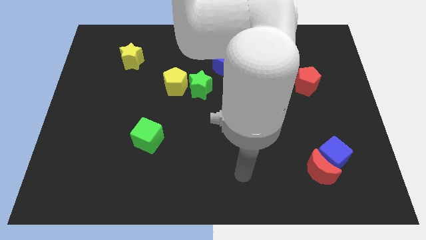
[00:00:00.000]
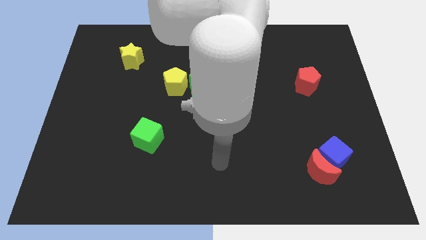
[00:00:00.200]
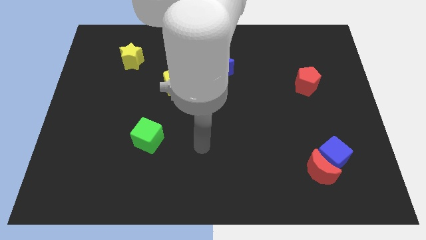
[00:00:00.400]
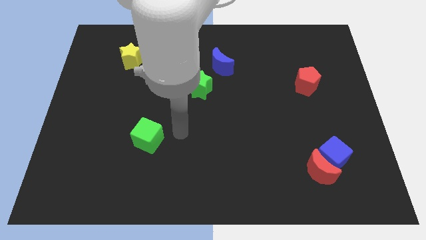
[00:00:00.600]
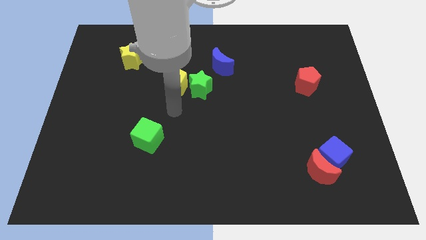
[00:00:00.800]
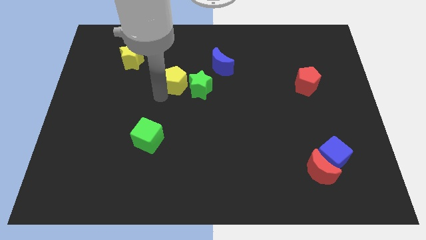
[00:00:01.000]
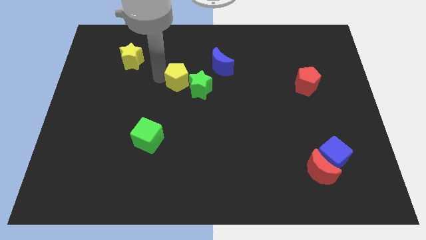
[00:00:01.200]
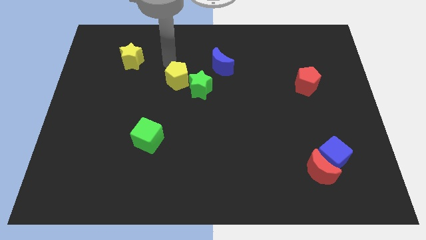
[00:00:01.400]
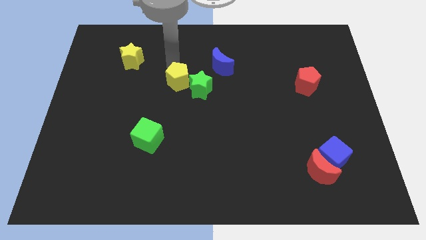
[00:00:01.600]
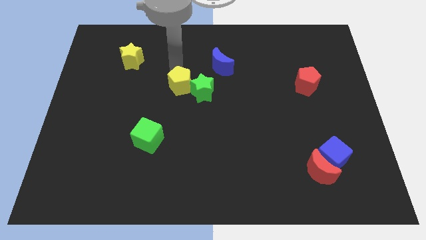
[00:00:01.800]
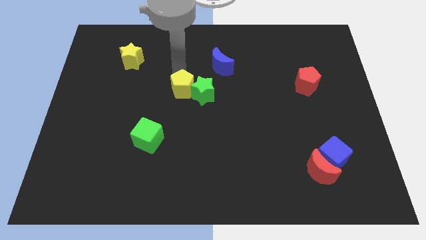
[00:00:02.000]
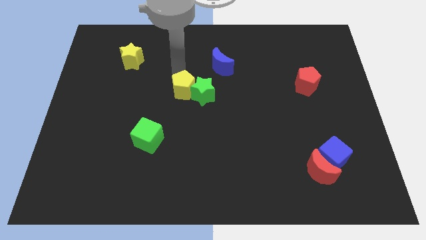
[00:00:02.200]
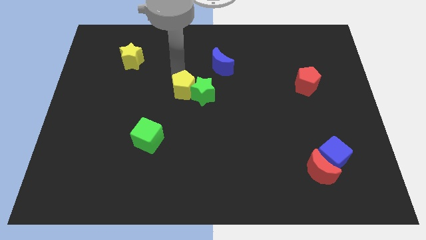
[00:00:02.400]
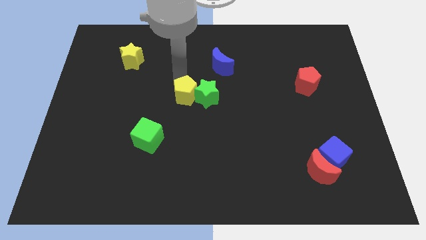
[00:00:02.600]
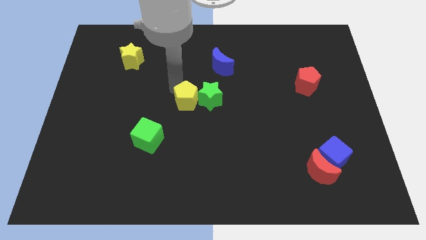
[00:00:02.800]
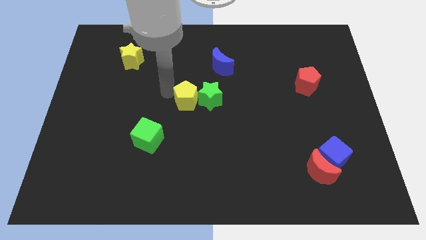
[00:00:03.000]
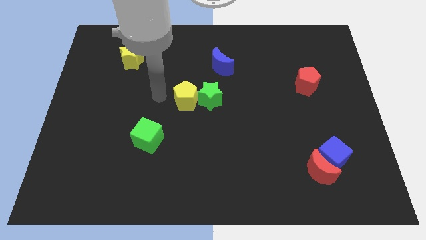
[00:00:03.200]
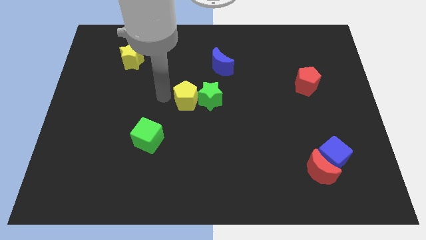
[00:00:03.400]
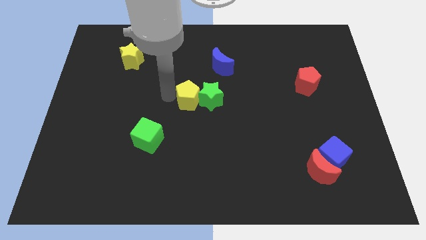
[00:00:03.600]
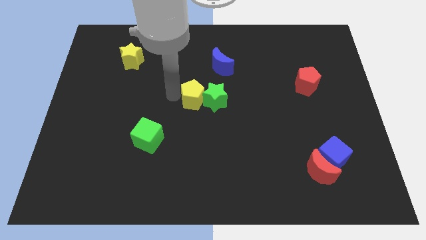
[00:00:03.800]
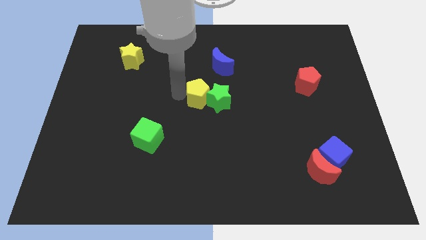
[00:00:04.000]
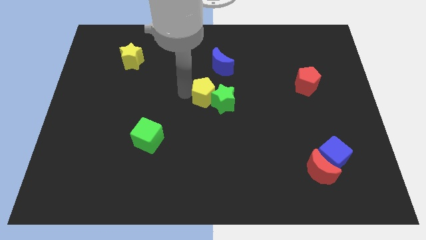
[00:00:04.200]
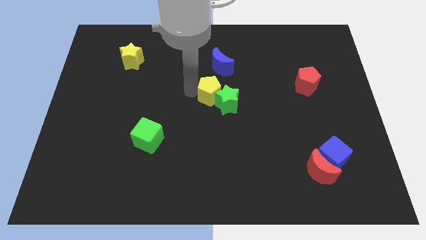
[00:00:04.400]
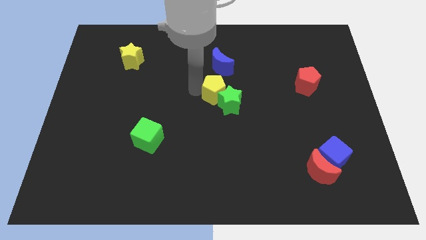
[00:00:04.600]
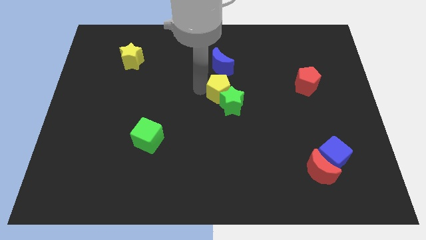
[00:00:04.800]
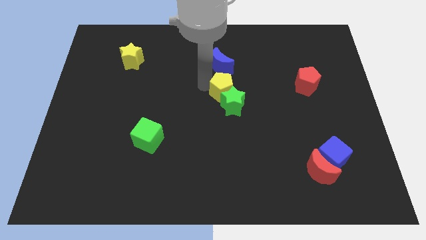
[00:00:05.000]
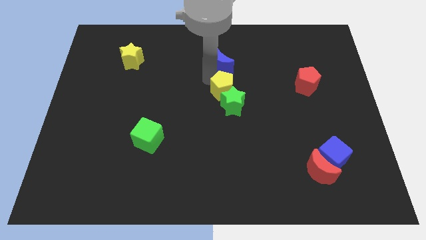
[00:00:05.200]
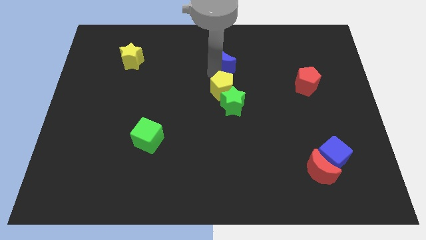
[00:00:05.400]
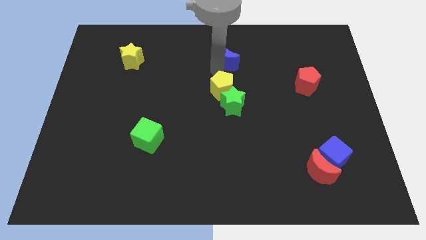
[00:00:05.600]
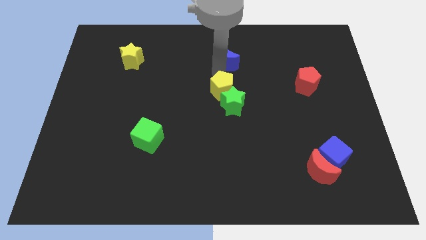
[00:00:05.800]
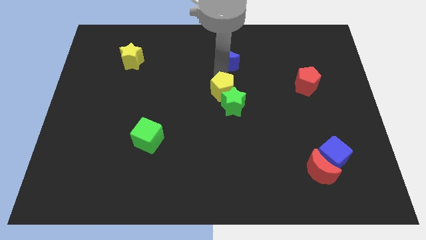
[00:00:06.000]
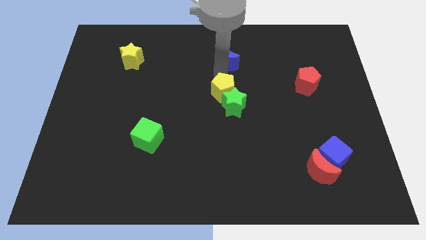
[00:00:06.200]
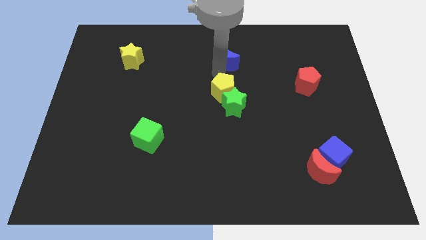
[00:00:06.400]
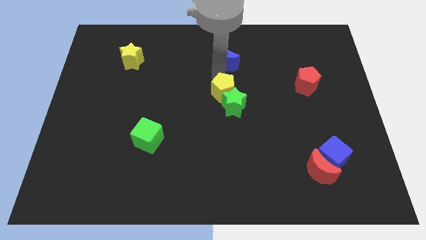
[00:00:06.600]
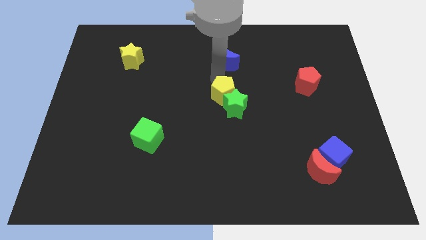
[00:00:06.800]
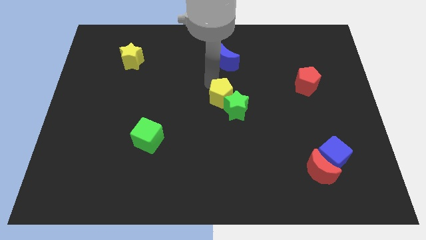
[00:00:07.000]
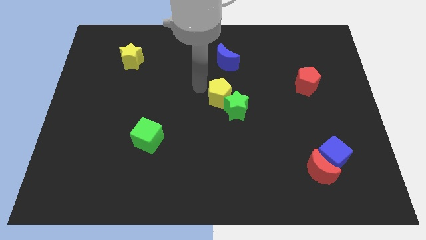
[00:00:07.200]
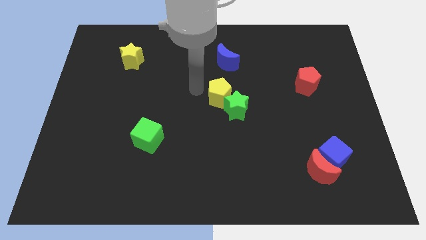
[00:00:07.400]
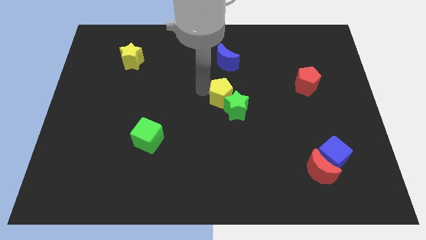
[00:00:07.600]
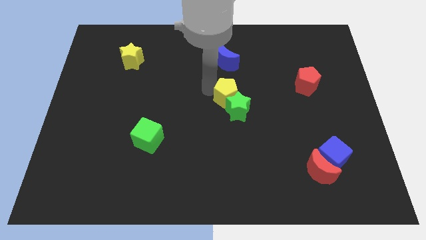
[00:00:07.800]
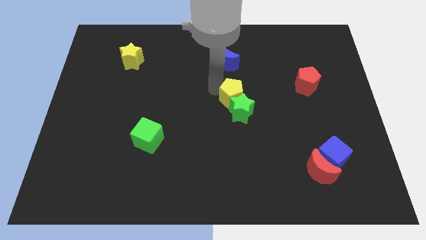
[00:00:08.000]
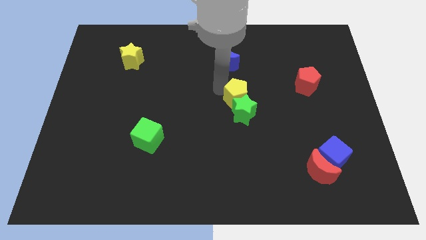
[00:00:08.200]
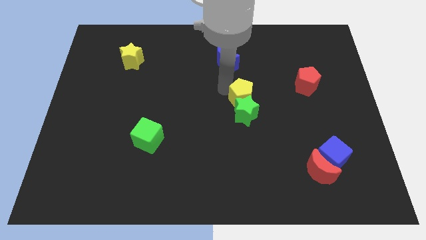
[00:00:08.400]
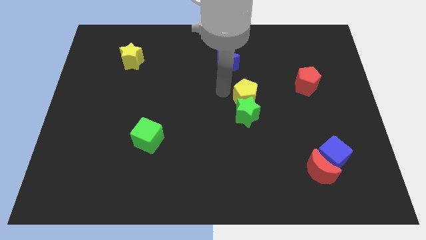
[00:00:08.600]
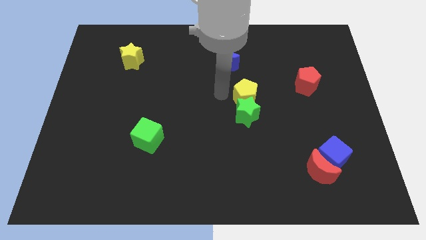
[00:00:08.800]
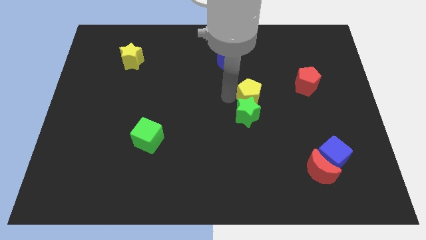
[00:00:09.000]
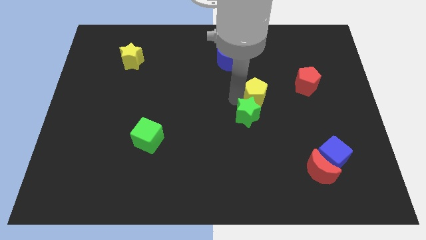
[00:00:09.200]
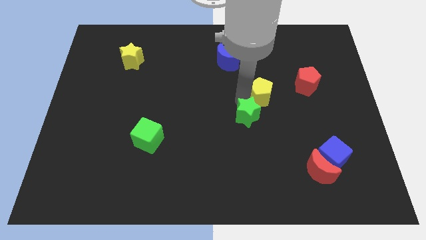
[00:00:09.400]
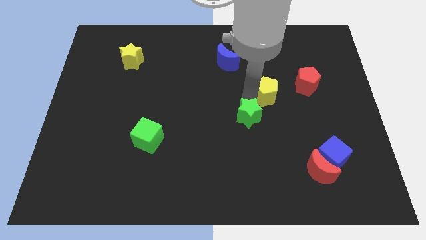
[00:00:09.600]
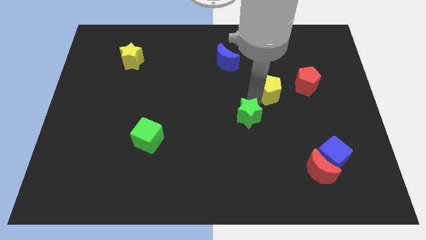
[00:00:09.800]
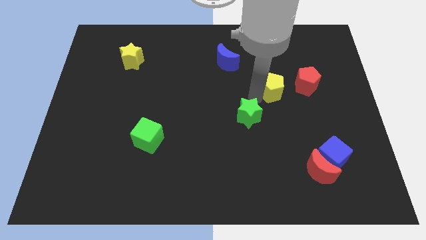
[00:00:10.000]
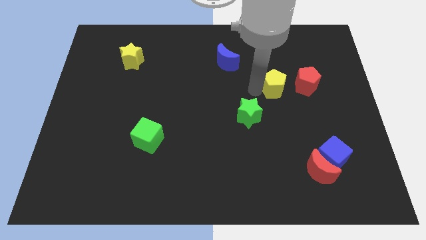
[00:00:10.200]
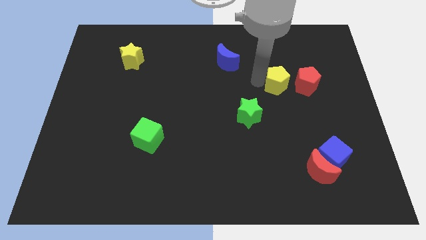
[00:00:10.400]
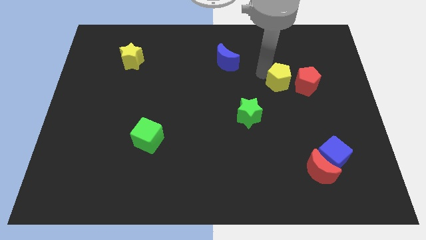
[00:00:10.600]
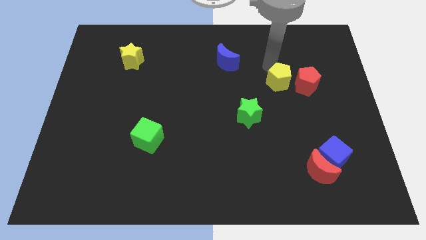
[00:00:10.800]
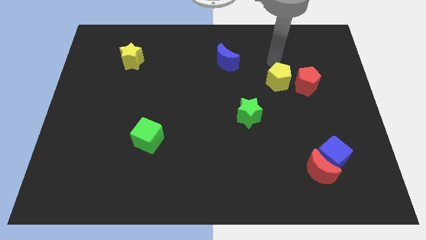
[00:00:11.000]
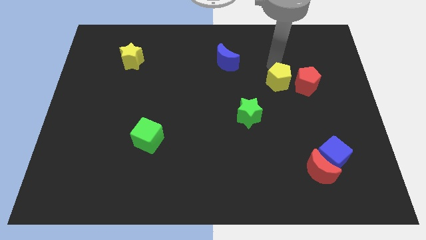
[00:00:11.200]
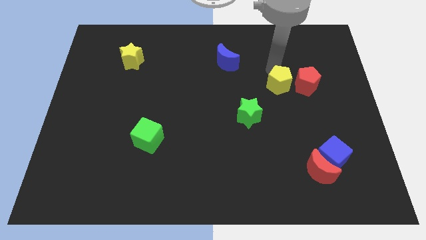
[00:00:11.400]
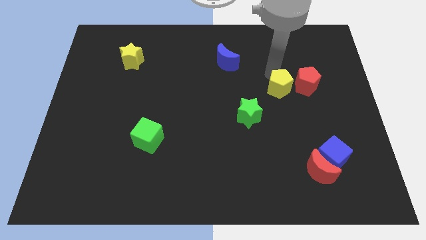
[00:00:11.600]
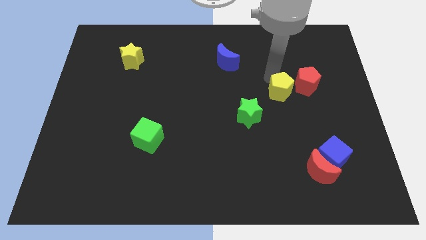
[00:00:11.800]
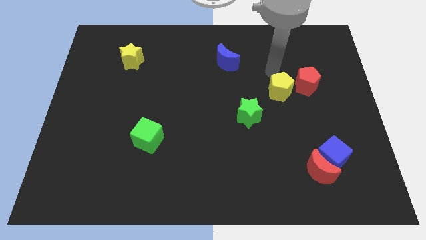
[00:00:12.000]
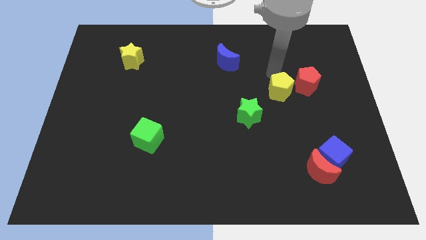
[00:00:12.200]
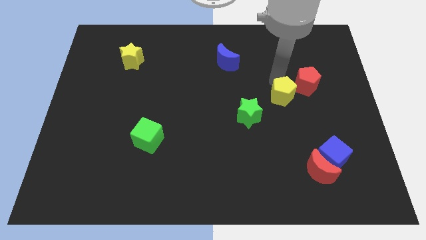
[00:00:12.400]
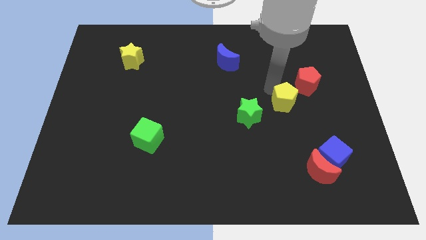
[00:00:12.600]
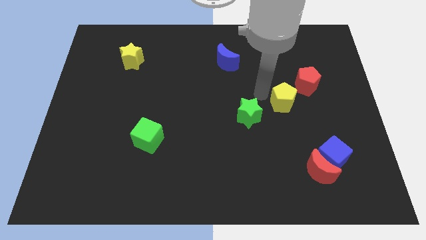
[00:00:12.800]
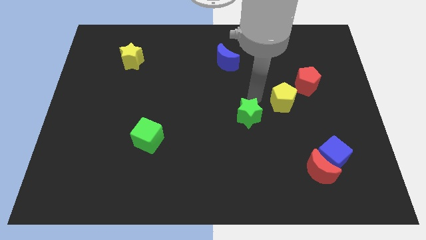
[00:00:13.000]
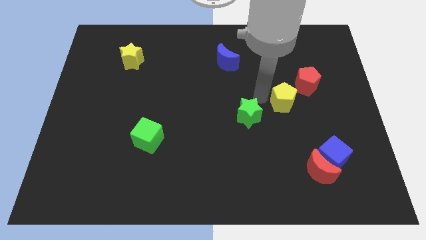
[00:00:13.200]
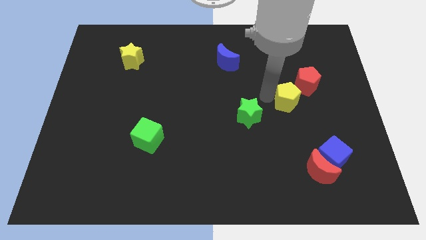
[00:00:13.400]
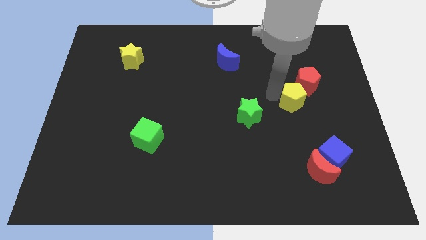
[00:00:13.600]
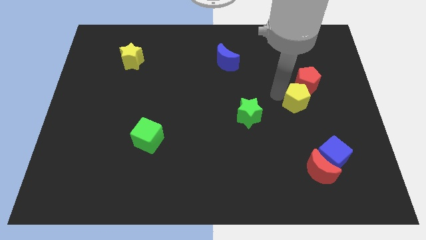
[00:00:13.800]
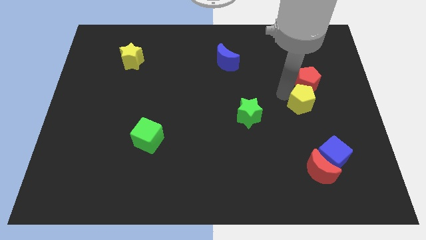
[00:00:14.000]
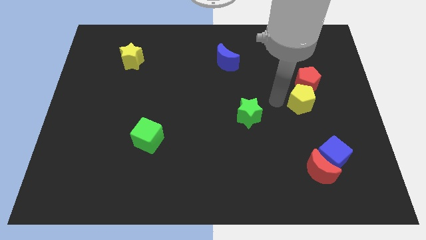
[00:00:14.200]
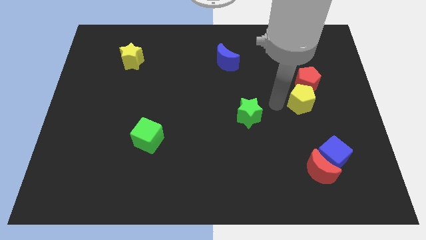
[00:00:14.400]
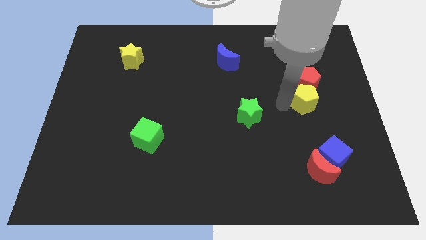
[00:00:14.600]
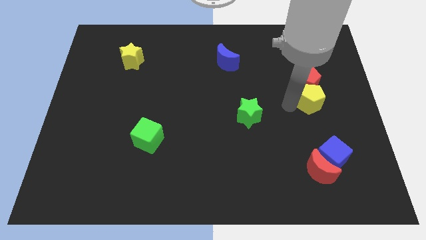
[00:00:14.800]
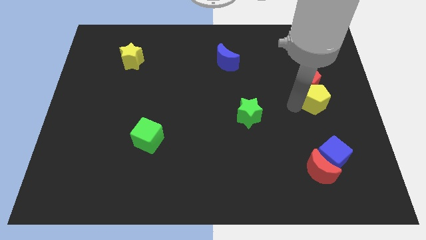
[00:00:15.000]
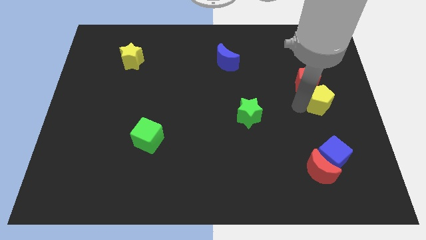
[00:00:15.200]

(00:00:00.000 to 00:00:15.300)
put the yellow pentagon to the right side
